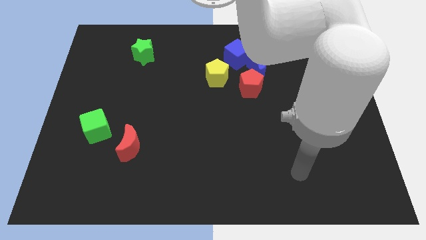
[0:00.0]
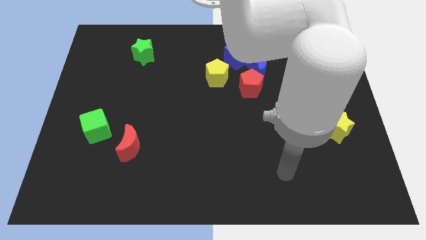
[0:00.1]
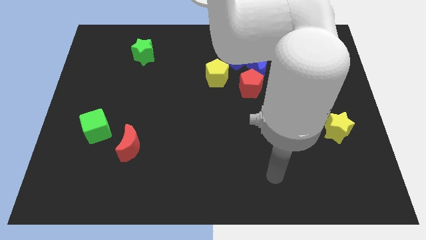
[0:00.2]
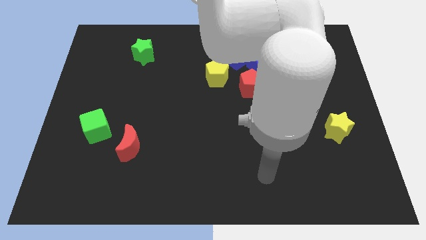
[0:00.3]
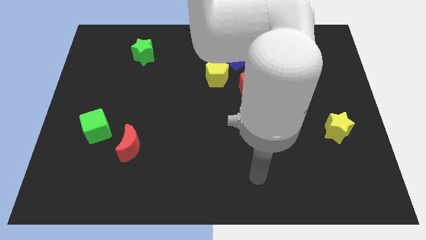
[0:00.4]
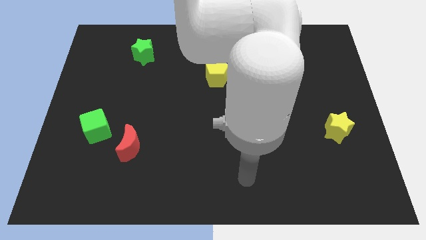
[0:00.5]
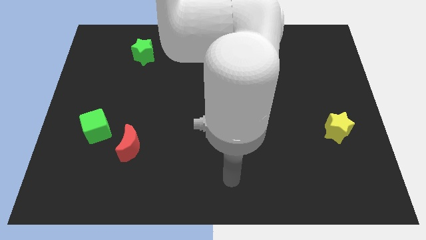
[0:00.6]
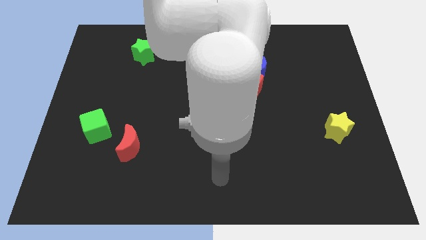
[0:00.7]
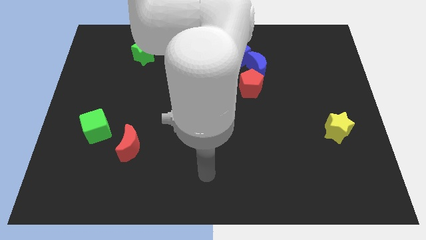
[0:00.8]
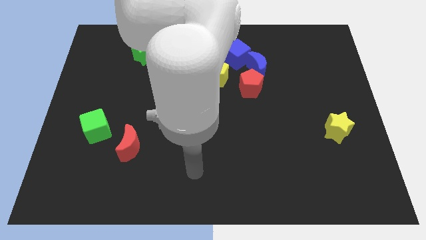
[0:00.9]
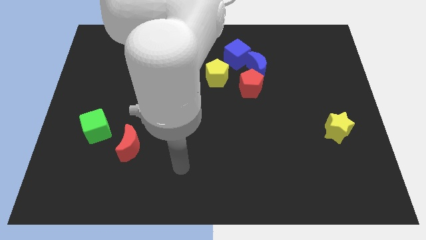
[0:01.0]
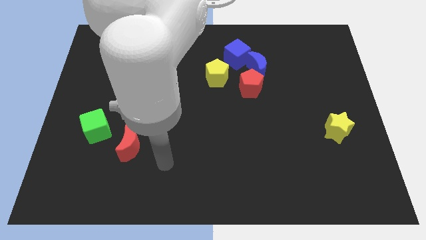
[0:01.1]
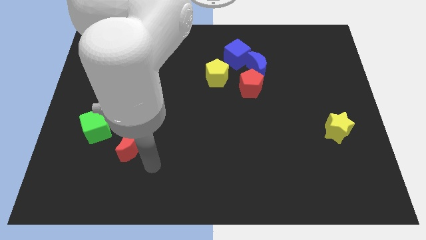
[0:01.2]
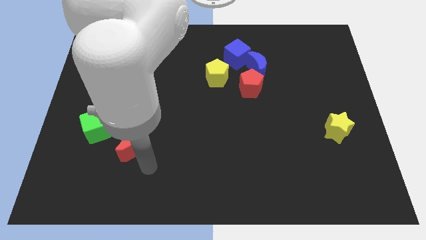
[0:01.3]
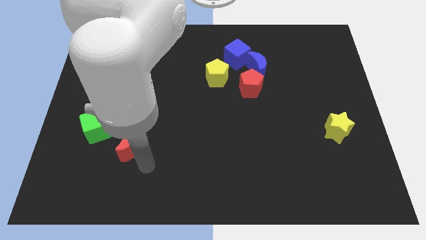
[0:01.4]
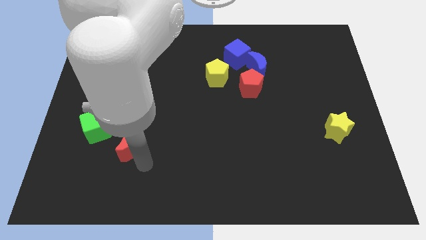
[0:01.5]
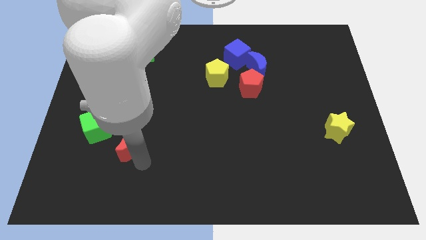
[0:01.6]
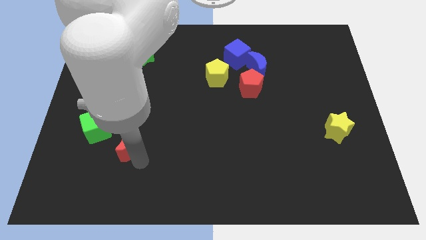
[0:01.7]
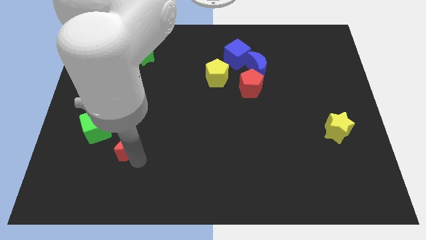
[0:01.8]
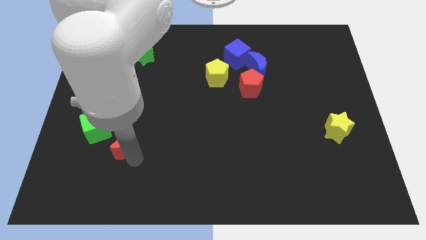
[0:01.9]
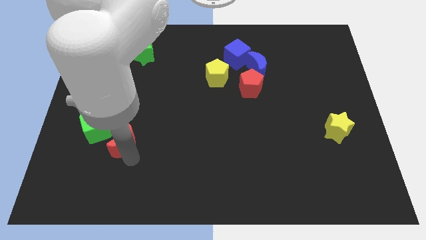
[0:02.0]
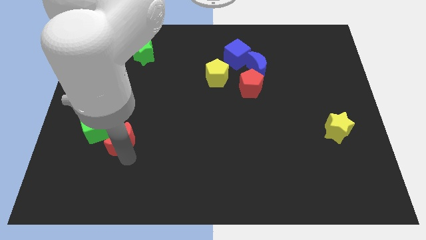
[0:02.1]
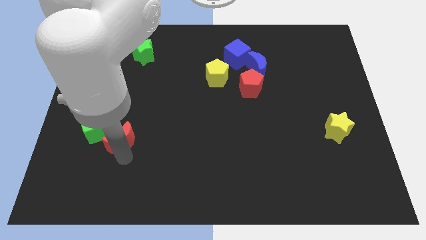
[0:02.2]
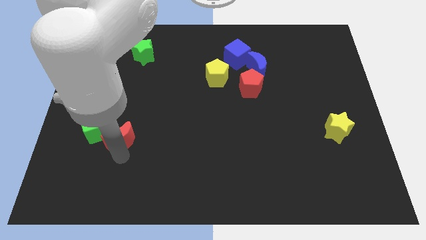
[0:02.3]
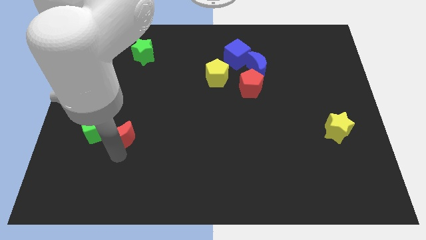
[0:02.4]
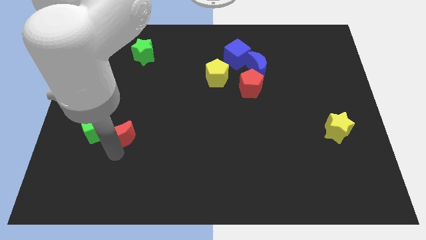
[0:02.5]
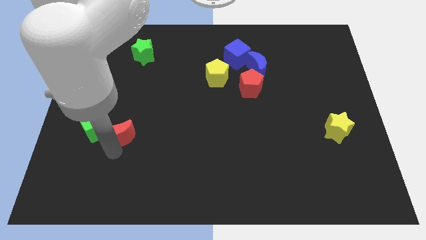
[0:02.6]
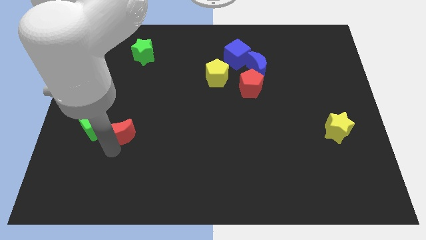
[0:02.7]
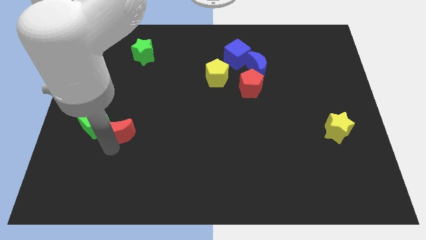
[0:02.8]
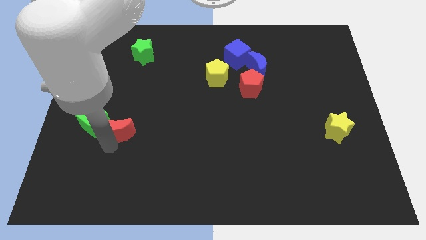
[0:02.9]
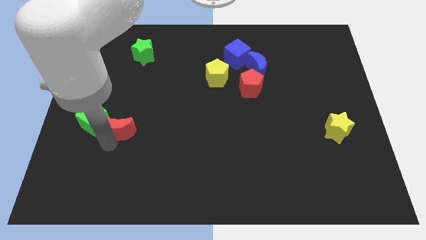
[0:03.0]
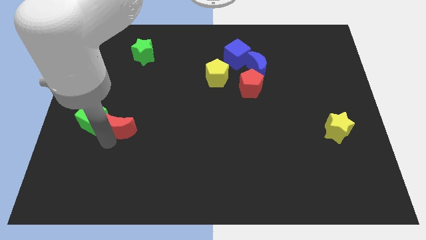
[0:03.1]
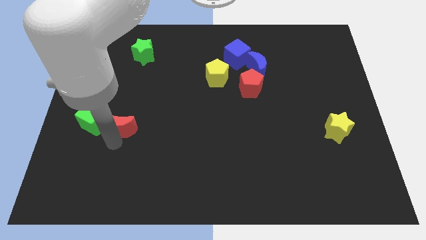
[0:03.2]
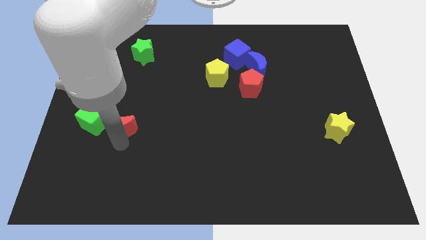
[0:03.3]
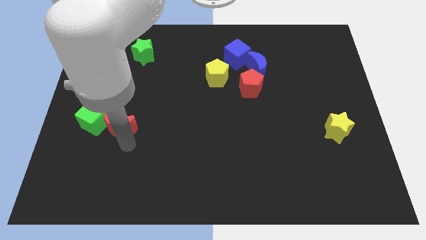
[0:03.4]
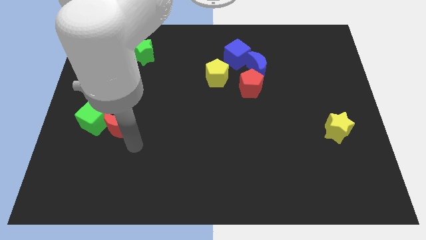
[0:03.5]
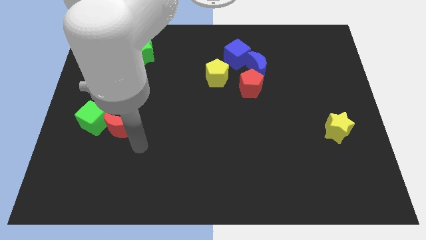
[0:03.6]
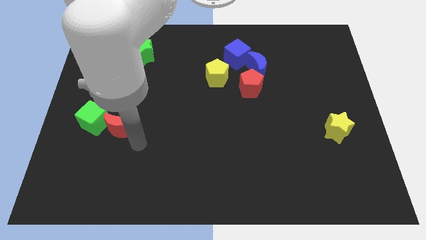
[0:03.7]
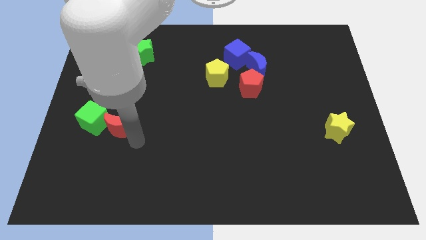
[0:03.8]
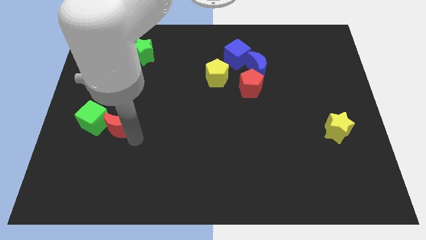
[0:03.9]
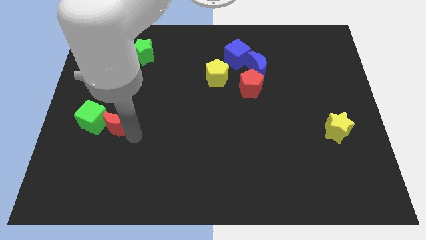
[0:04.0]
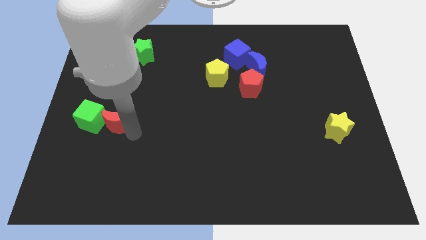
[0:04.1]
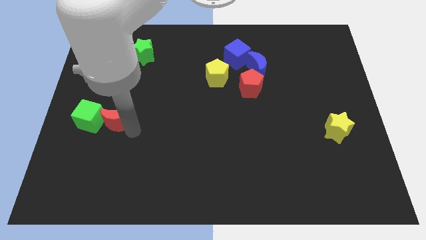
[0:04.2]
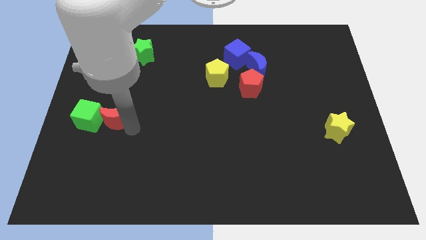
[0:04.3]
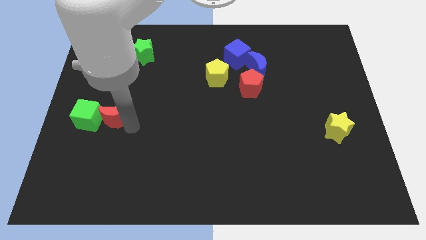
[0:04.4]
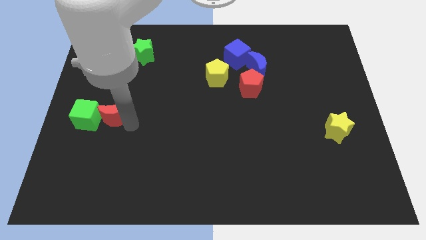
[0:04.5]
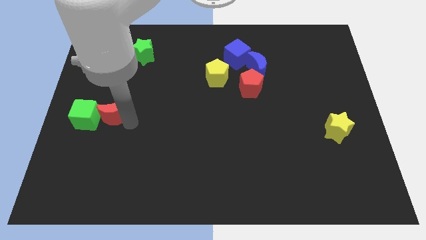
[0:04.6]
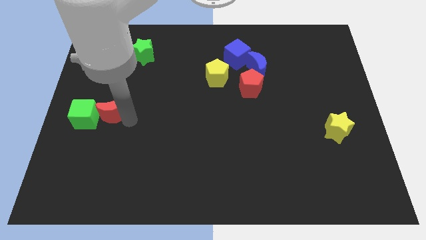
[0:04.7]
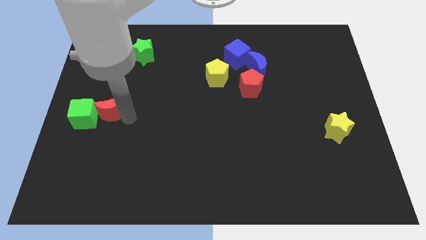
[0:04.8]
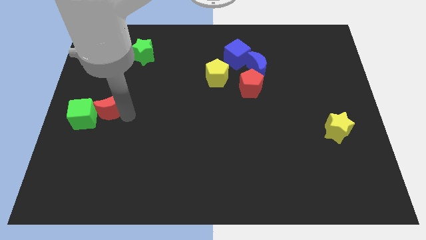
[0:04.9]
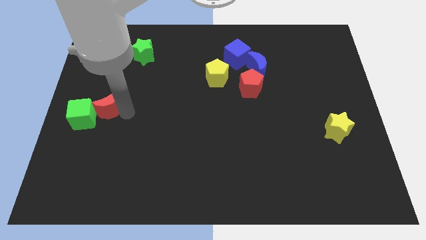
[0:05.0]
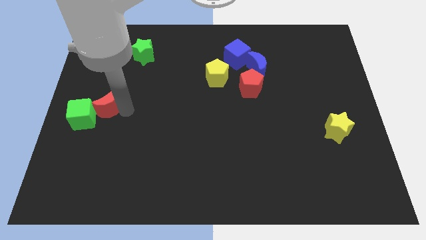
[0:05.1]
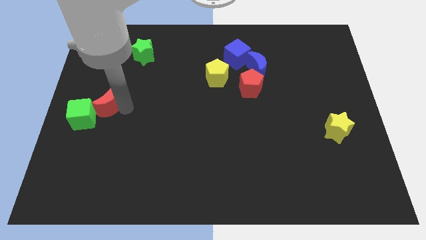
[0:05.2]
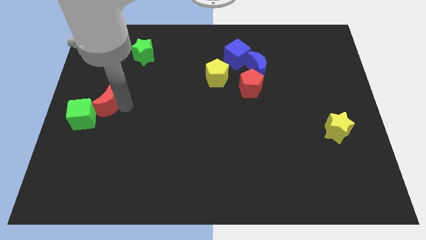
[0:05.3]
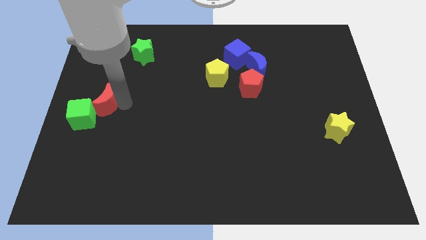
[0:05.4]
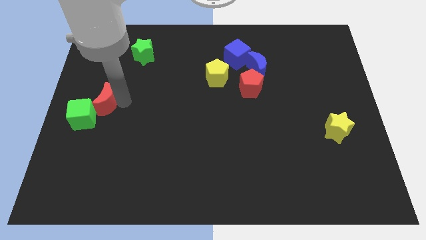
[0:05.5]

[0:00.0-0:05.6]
slide the red moon to the center left
